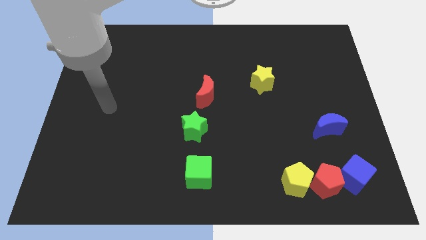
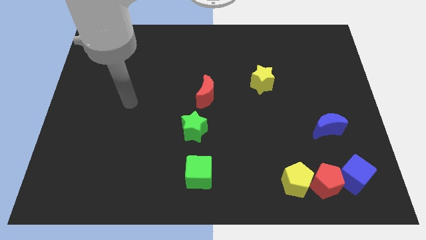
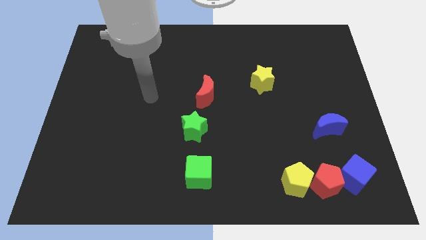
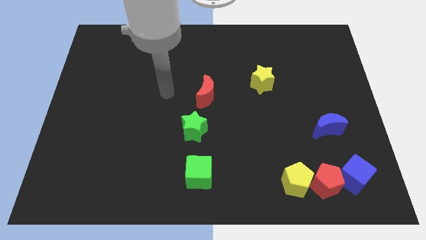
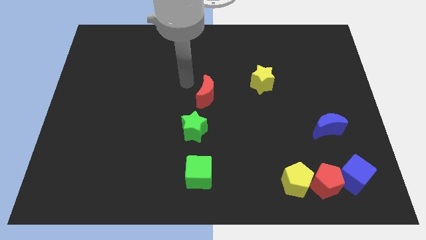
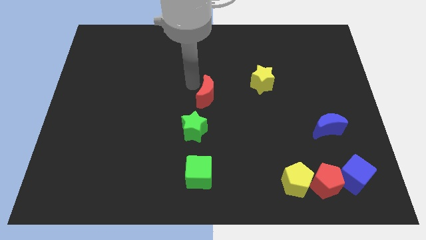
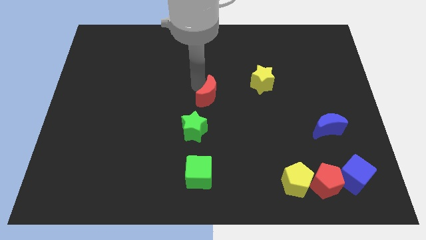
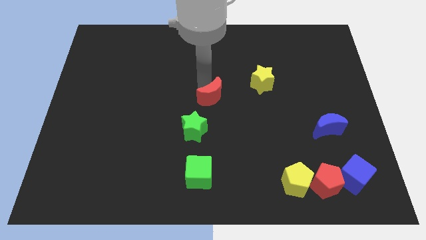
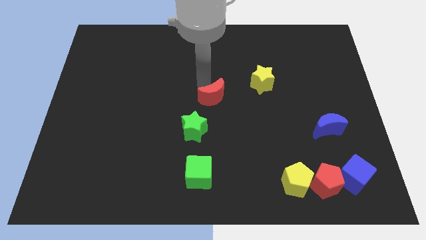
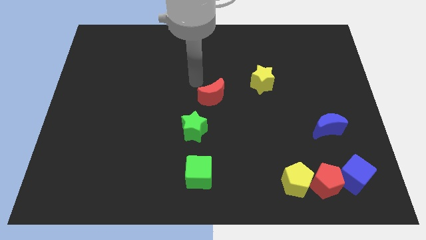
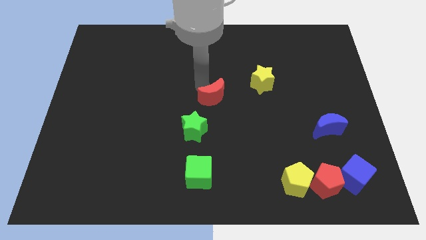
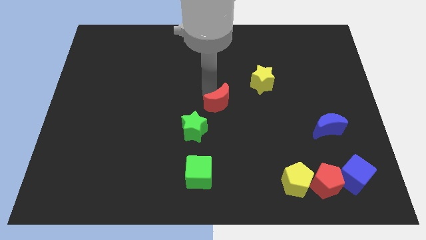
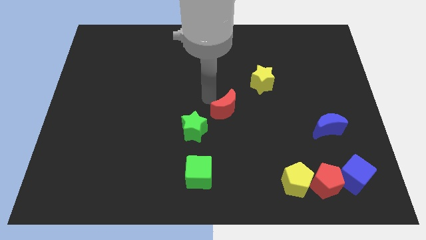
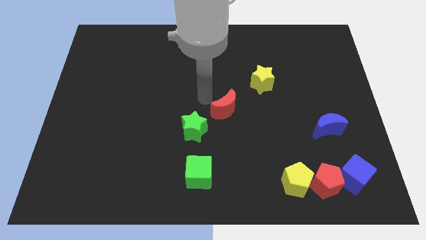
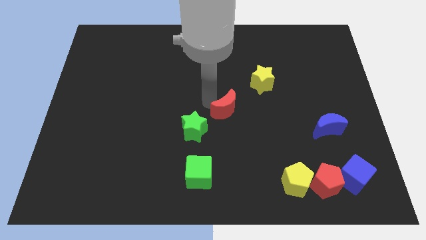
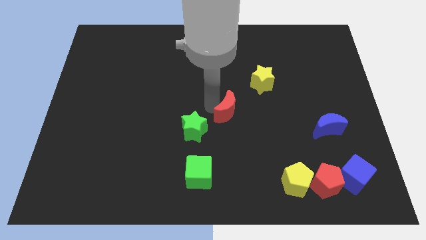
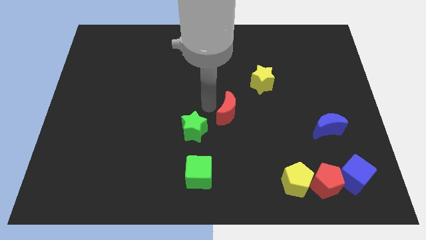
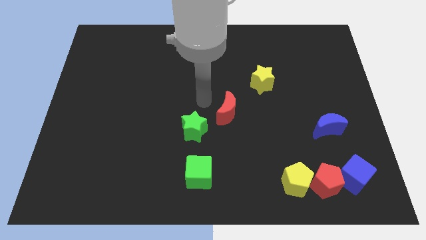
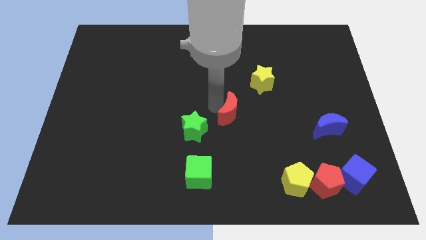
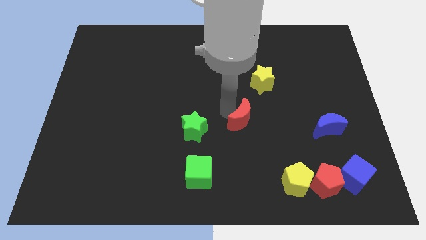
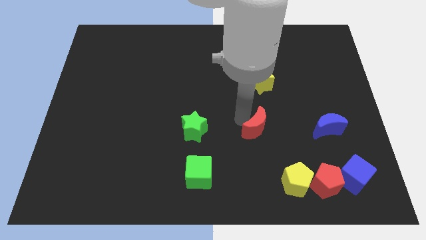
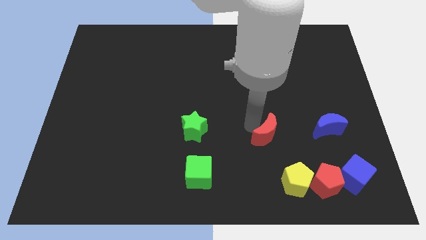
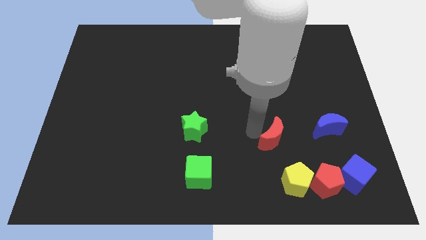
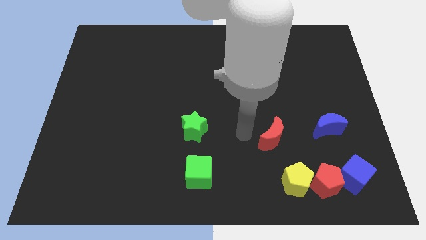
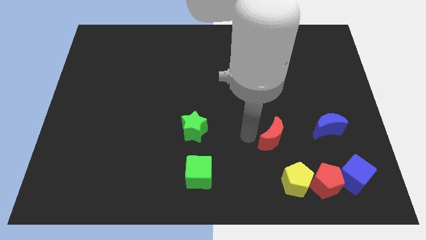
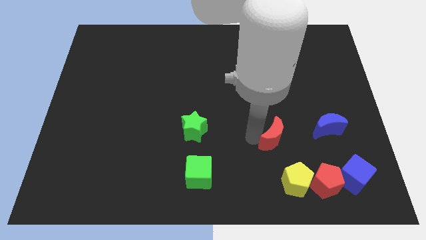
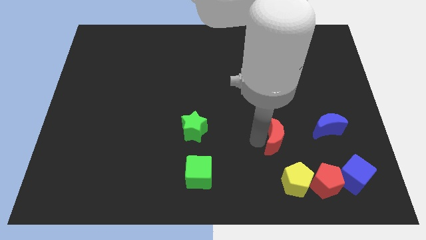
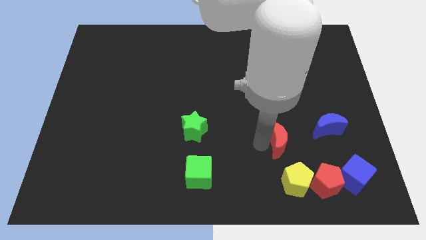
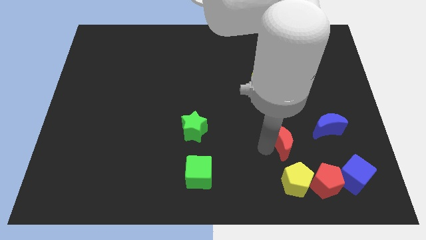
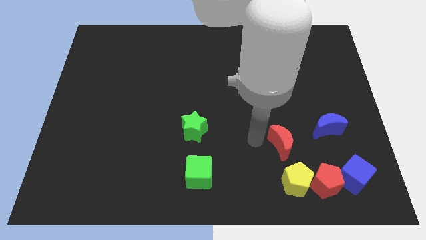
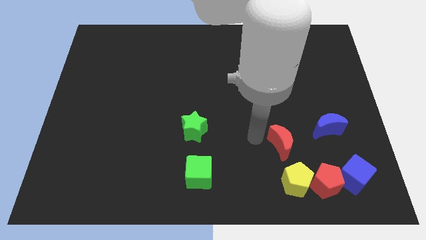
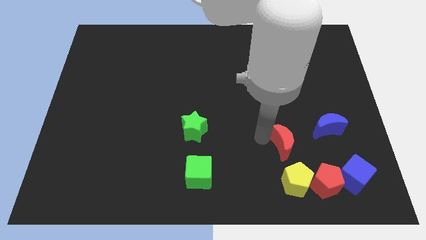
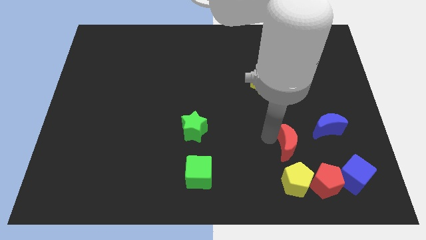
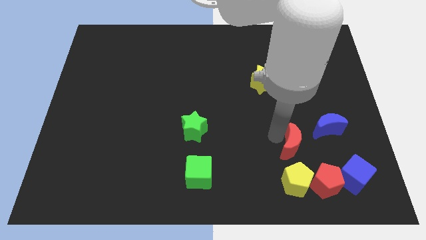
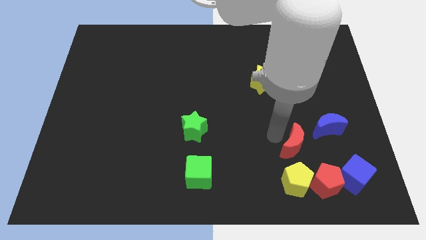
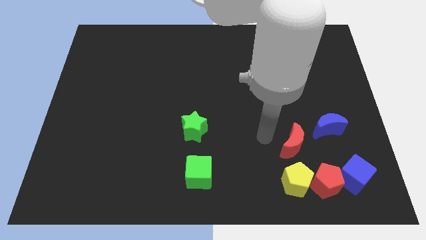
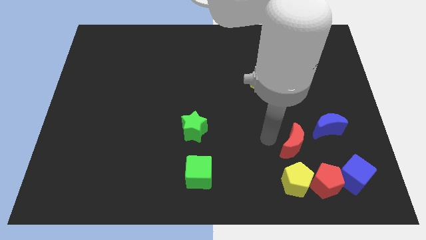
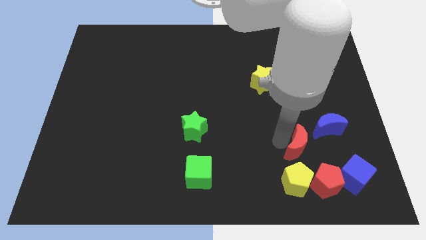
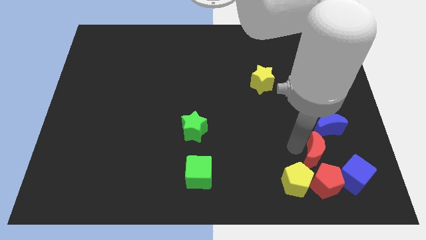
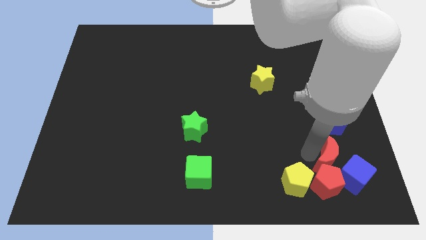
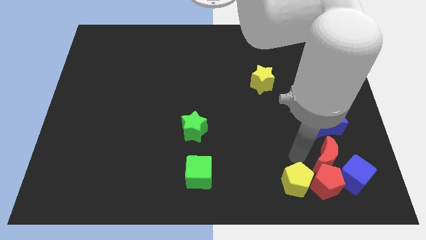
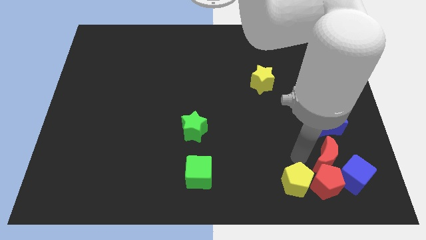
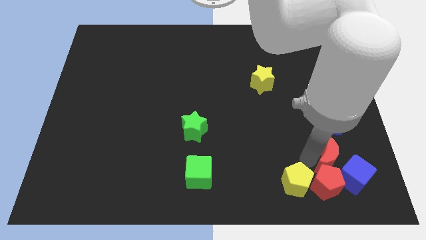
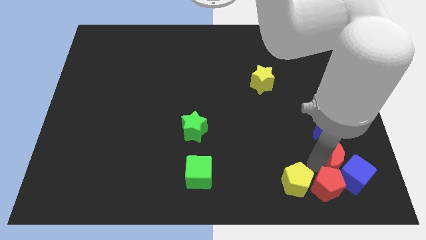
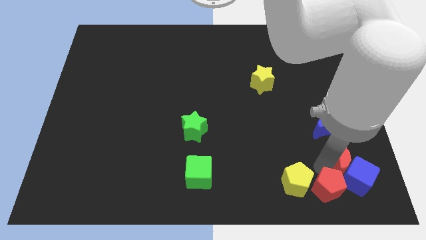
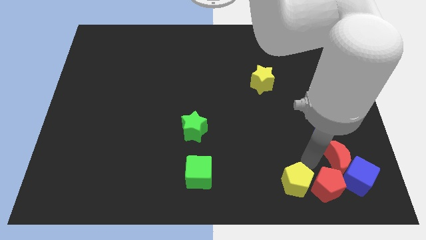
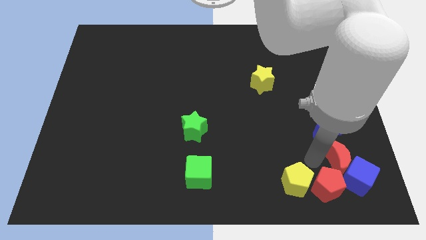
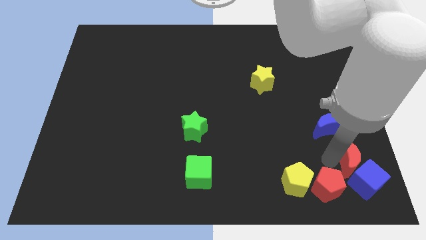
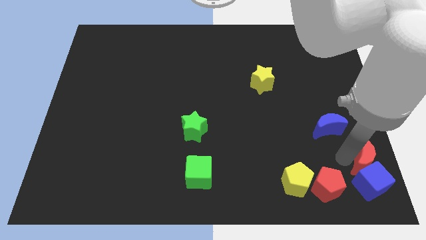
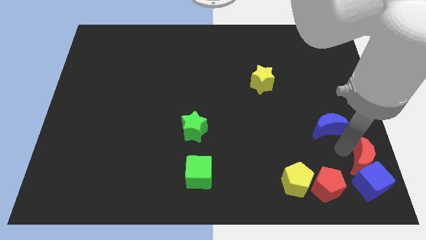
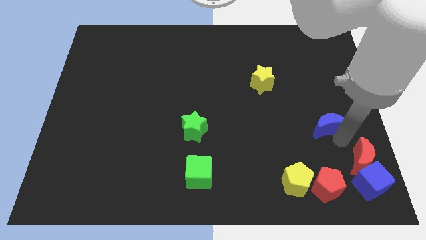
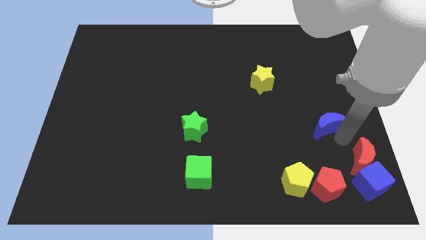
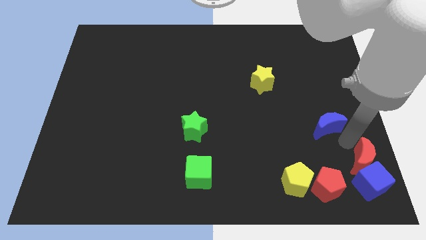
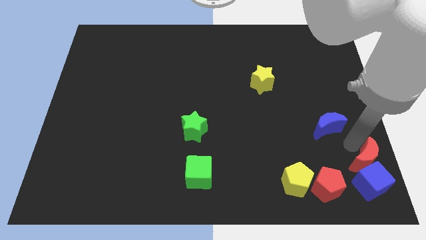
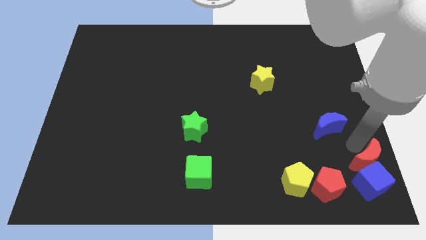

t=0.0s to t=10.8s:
put the red moon to the bottom right corner

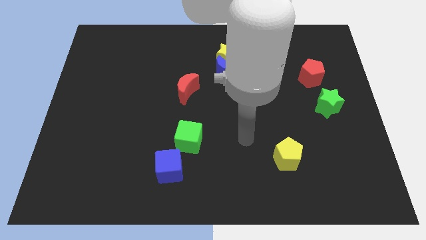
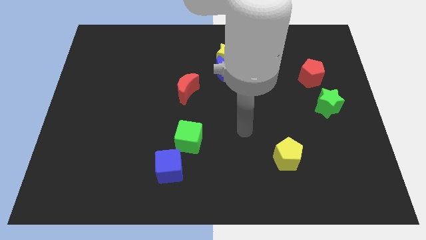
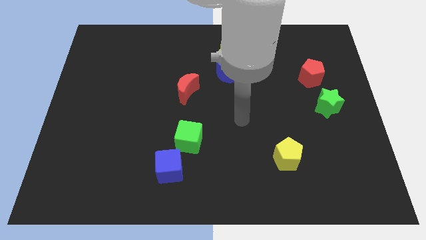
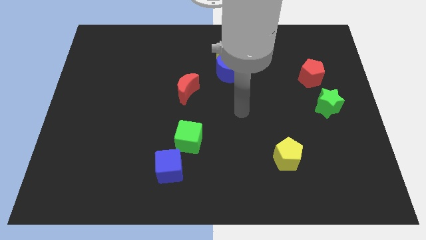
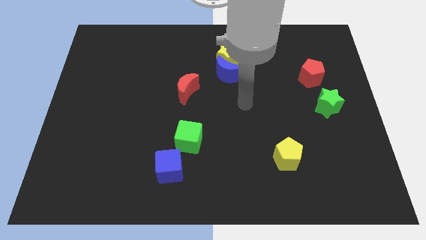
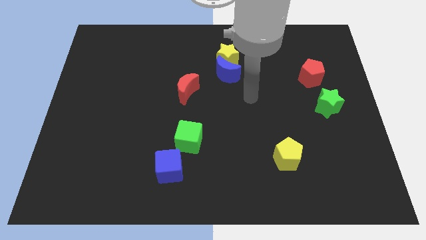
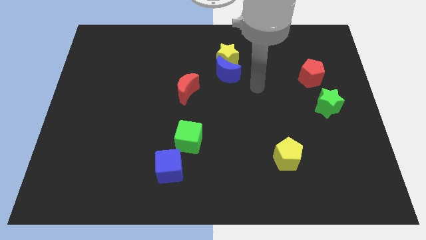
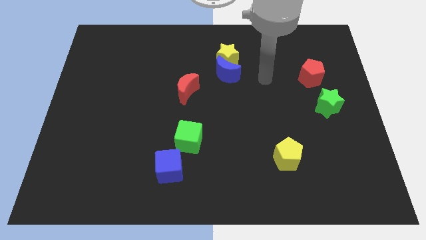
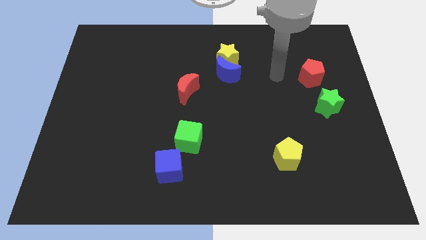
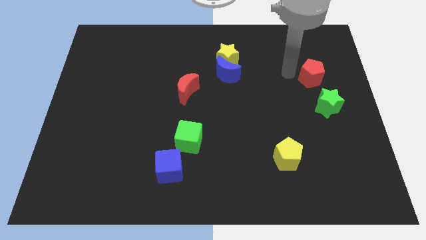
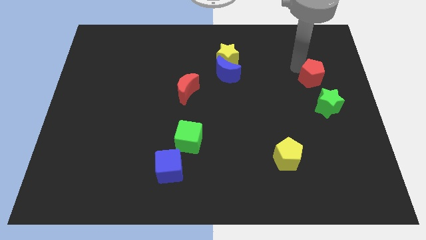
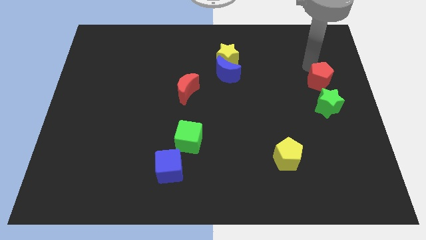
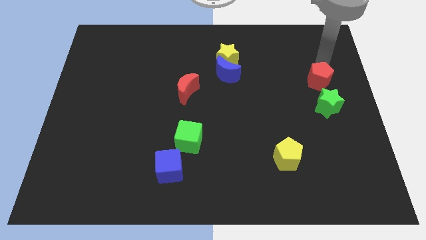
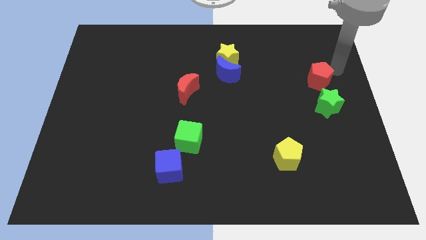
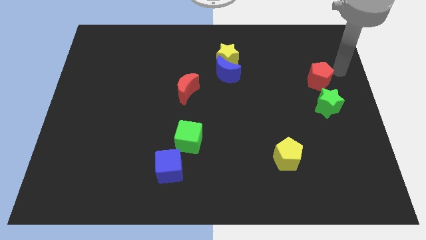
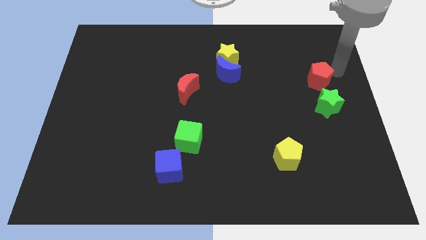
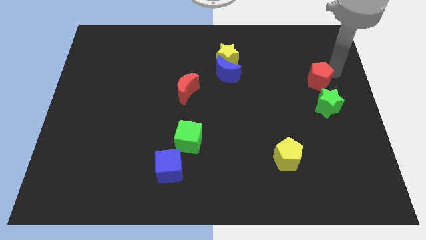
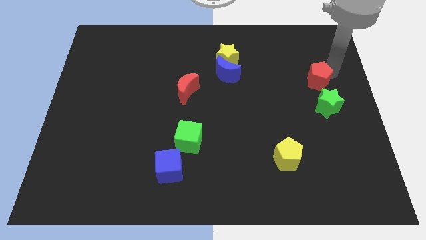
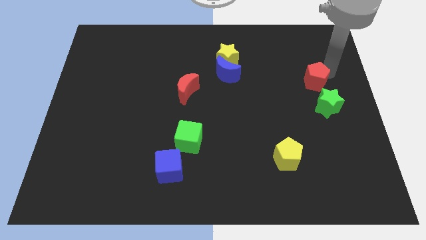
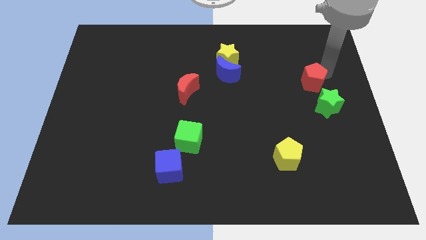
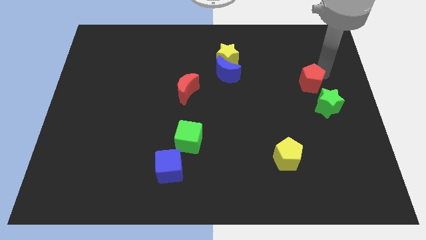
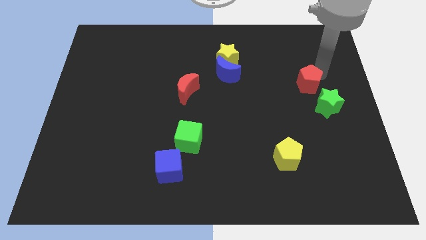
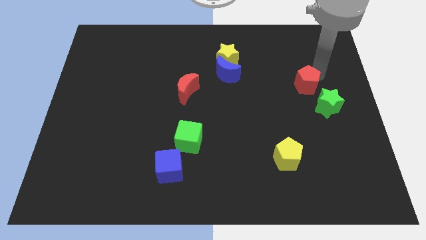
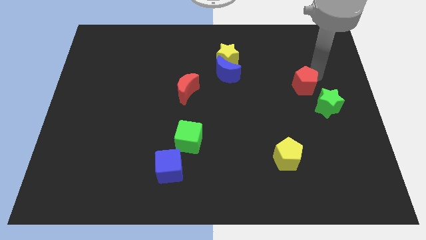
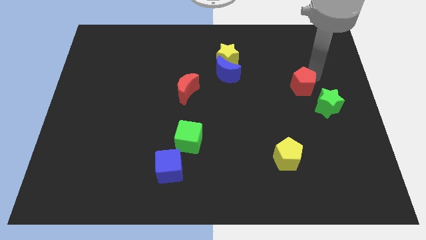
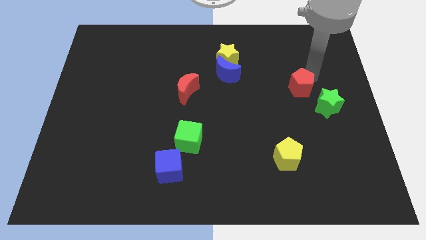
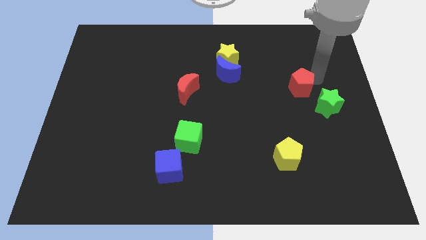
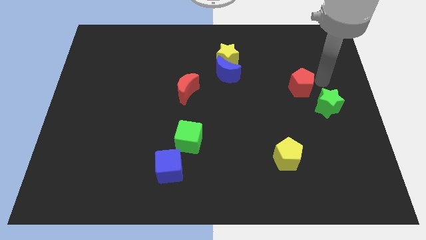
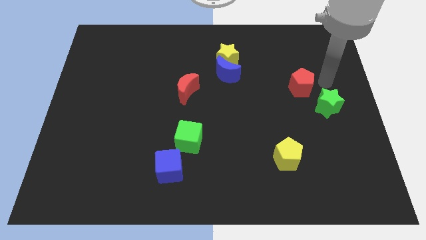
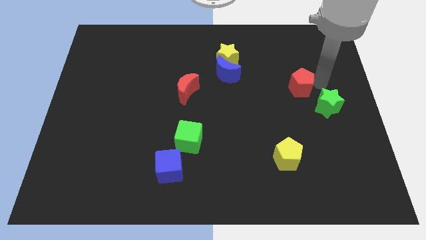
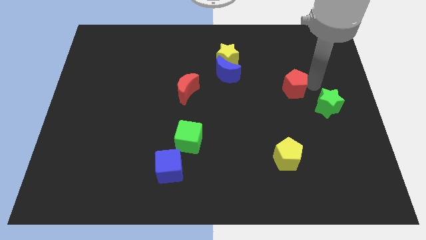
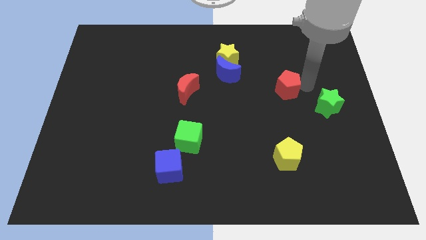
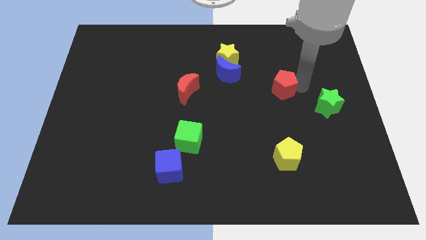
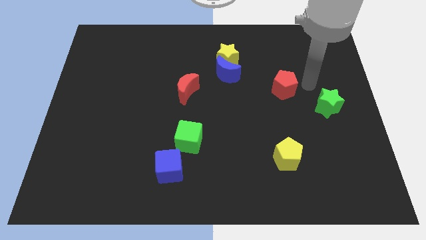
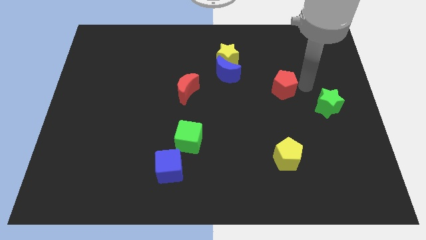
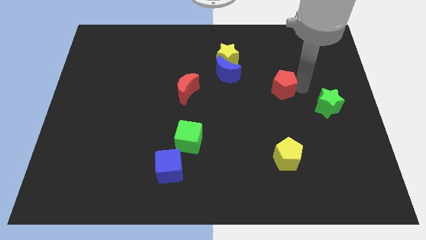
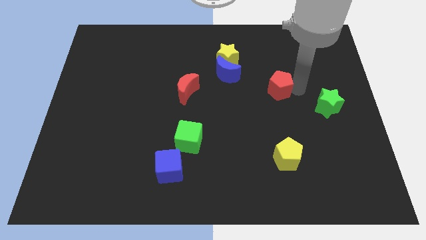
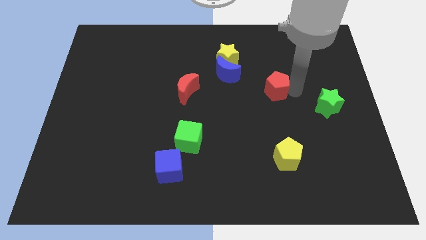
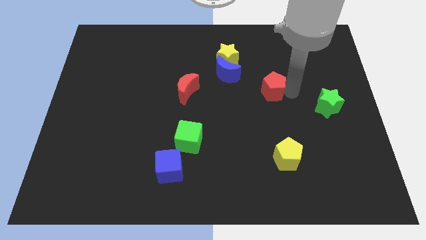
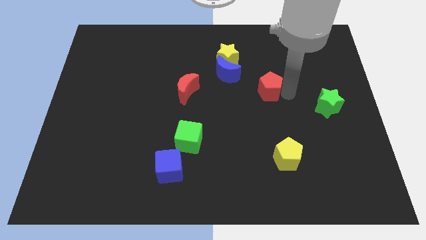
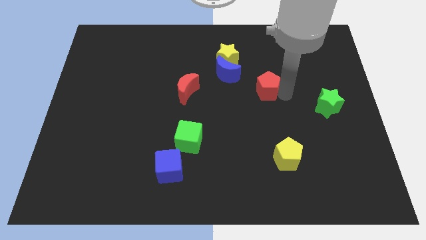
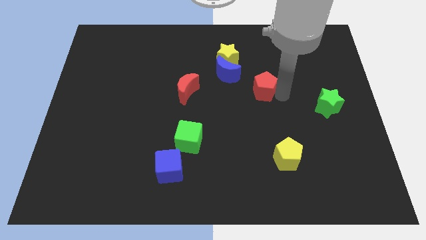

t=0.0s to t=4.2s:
put the red pentagon to the center
